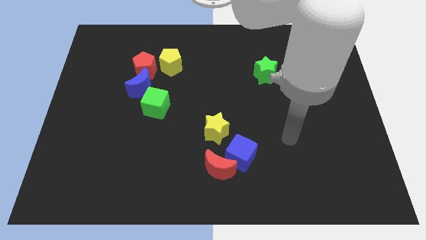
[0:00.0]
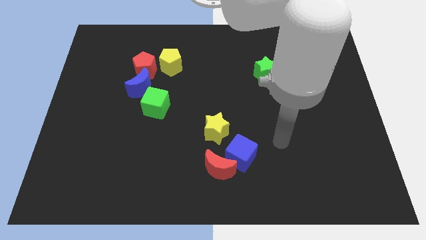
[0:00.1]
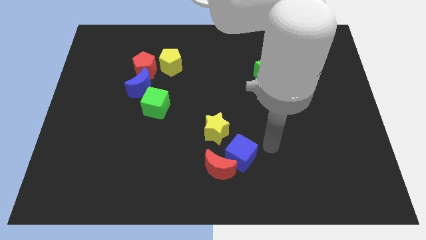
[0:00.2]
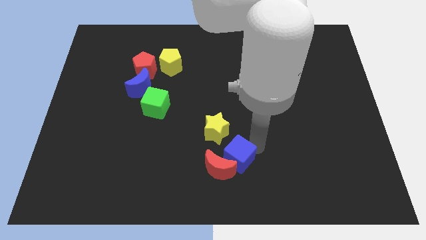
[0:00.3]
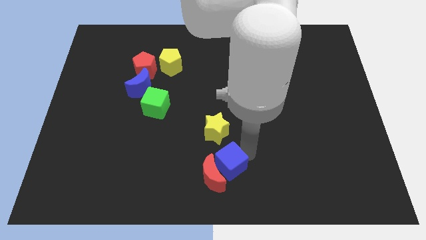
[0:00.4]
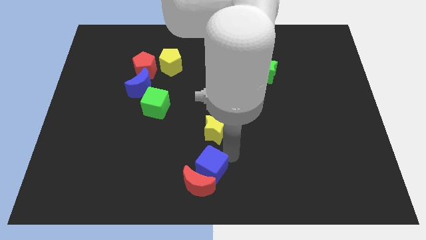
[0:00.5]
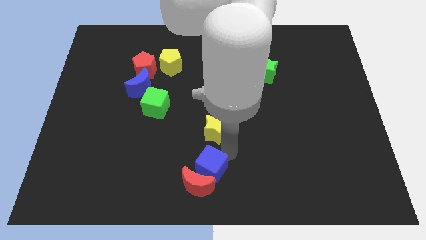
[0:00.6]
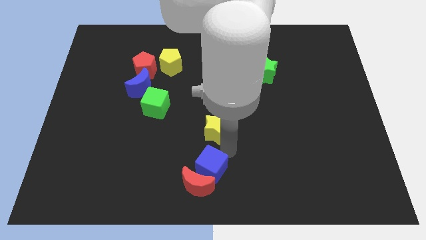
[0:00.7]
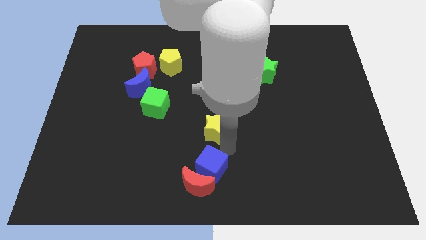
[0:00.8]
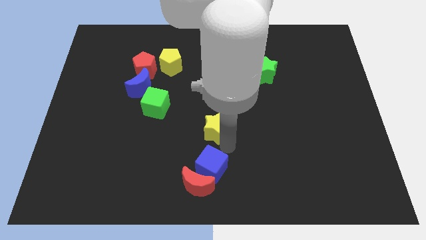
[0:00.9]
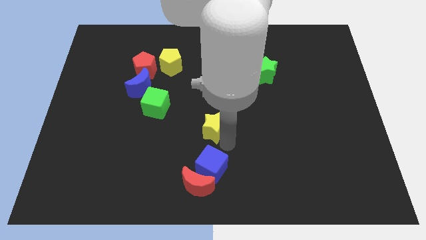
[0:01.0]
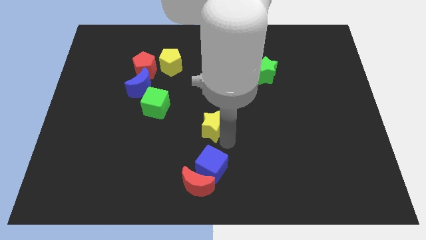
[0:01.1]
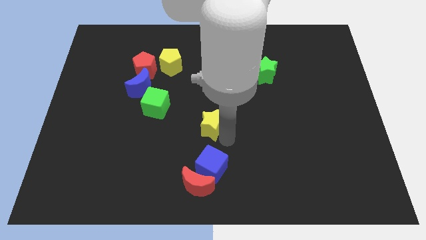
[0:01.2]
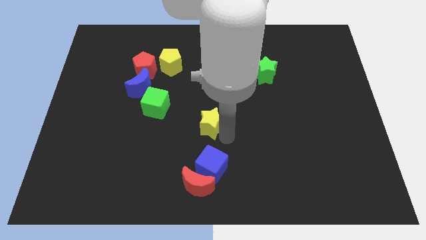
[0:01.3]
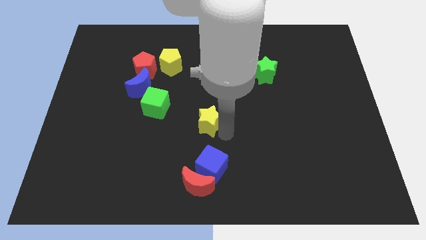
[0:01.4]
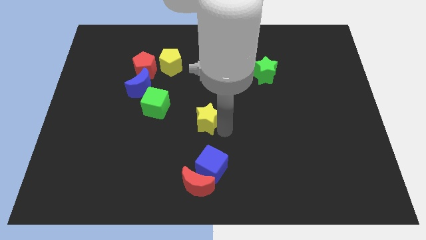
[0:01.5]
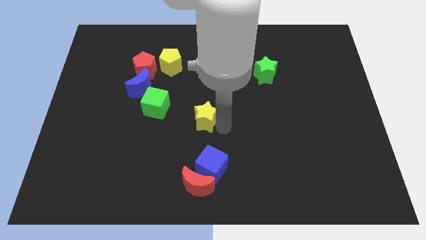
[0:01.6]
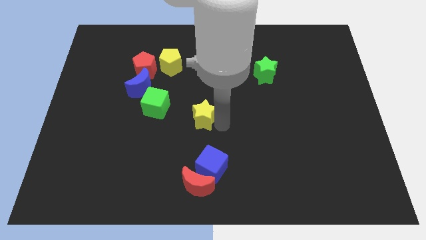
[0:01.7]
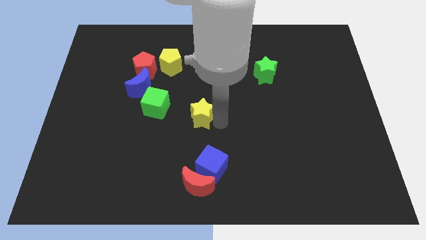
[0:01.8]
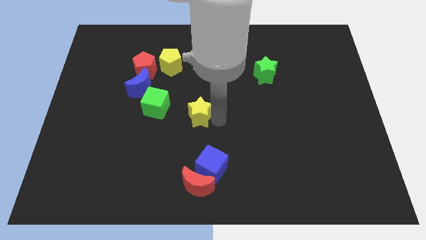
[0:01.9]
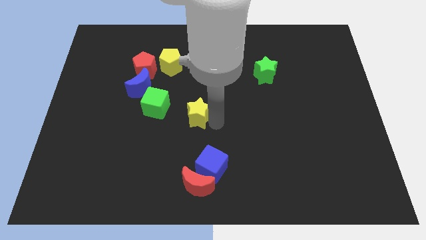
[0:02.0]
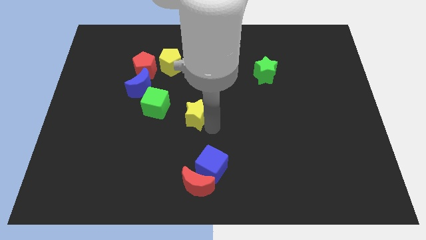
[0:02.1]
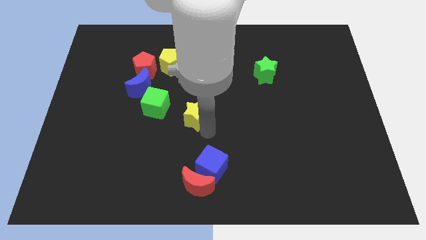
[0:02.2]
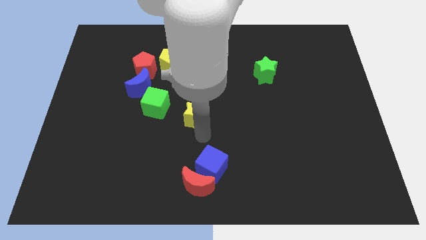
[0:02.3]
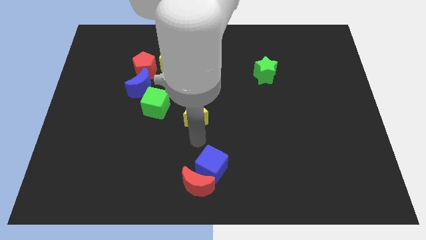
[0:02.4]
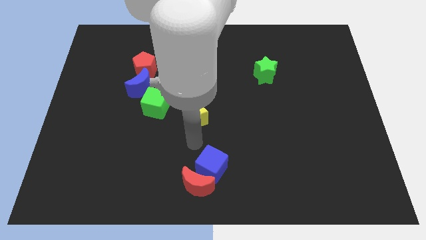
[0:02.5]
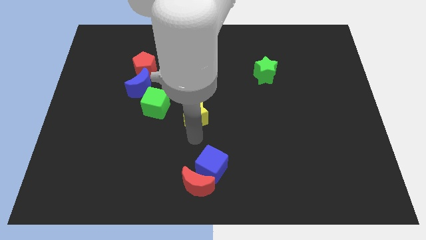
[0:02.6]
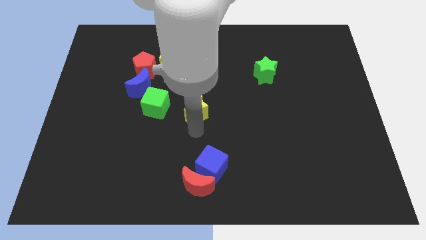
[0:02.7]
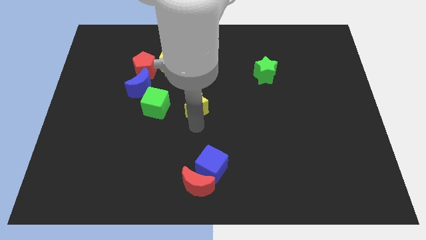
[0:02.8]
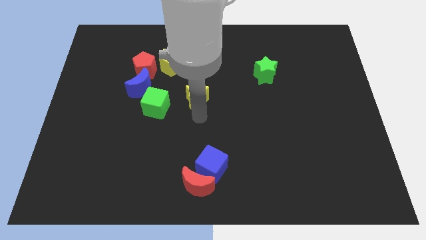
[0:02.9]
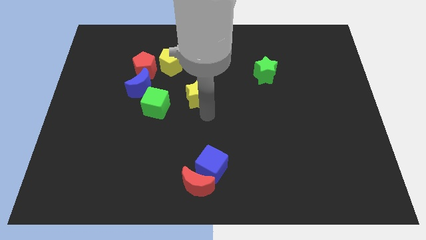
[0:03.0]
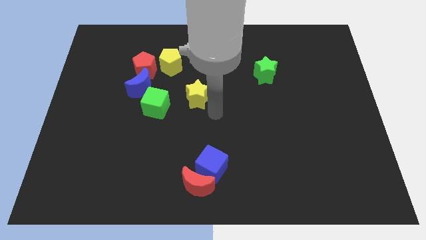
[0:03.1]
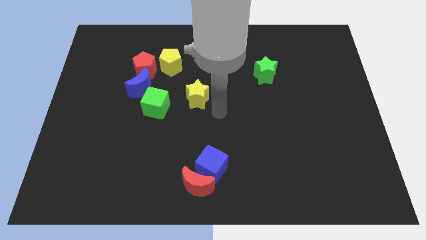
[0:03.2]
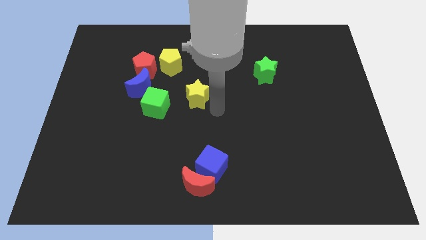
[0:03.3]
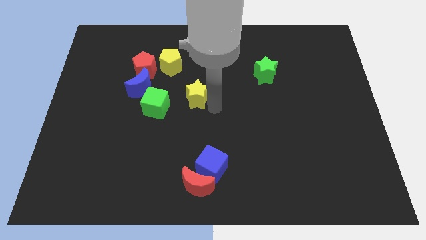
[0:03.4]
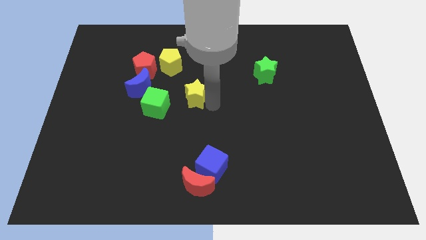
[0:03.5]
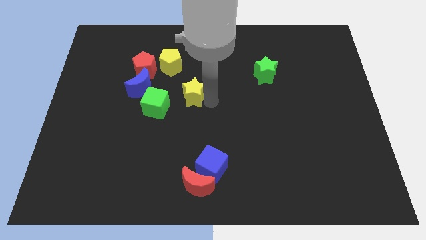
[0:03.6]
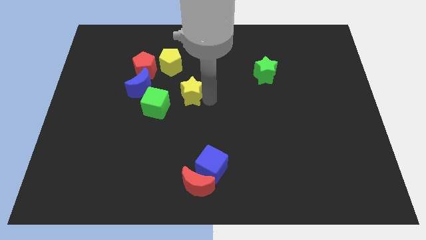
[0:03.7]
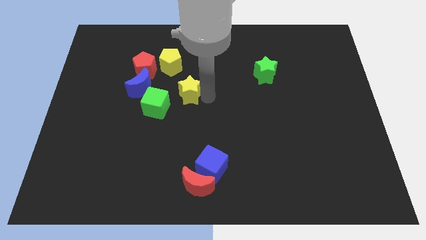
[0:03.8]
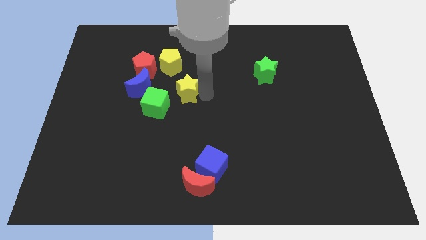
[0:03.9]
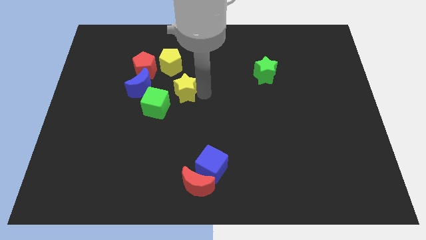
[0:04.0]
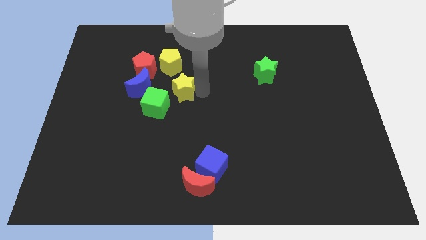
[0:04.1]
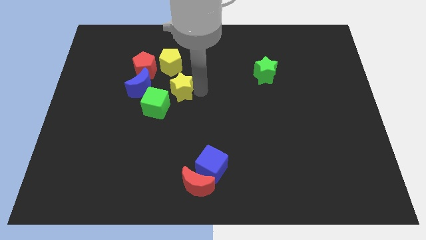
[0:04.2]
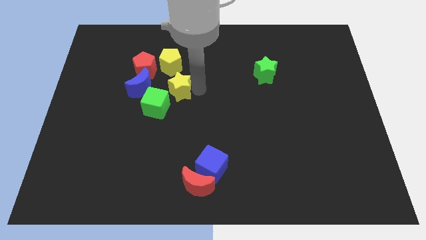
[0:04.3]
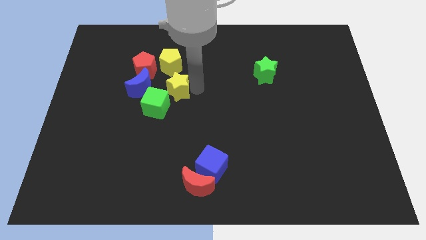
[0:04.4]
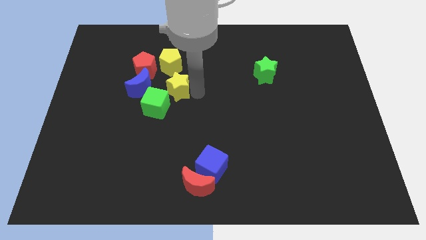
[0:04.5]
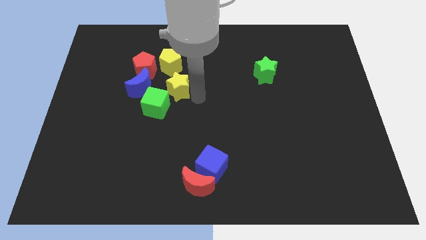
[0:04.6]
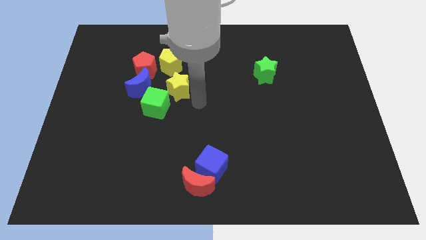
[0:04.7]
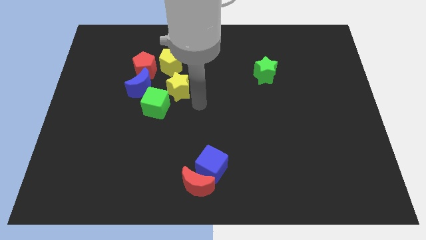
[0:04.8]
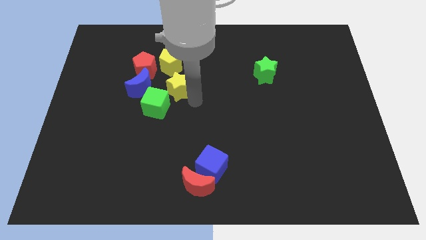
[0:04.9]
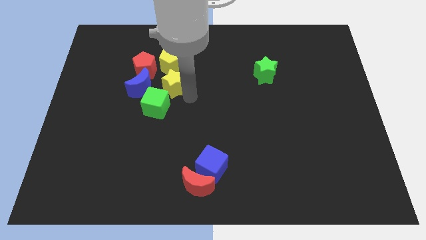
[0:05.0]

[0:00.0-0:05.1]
put the yellow star to the top side of the green cube

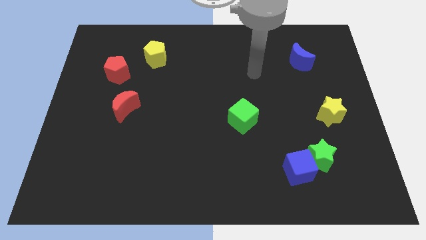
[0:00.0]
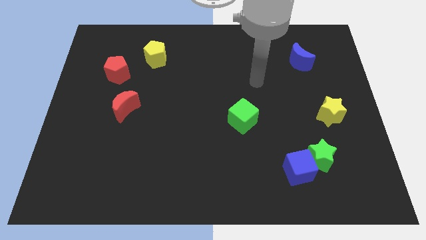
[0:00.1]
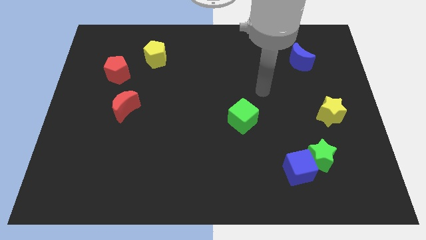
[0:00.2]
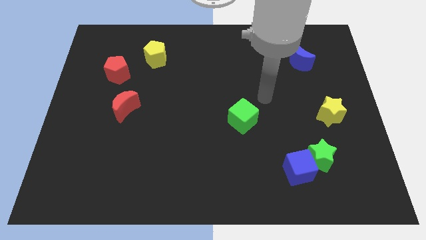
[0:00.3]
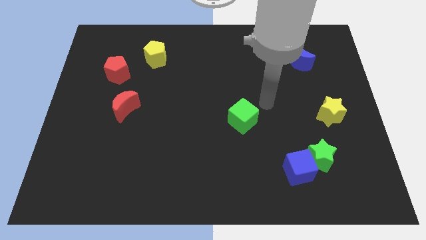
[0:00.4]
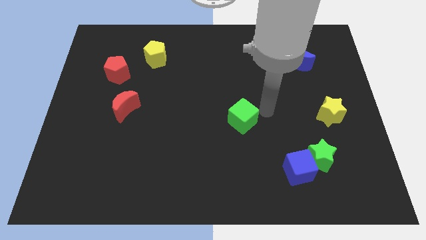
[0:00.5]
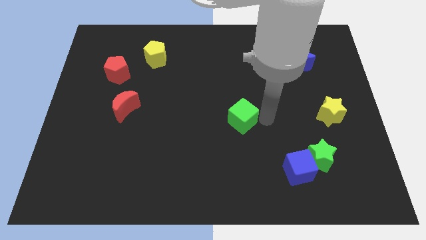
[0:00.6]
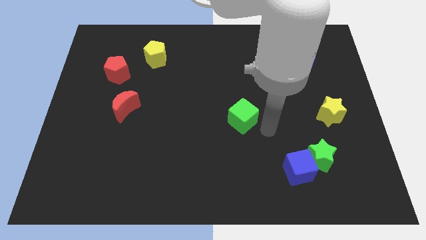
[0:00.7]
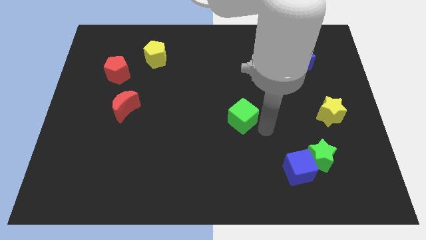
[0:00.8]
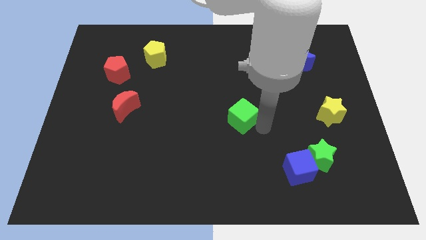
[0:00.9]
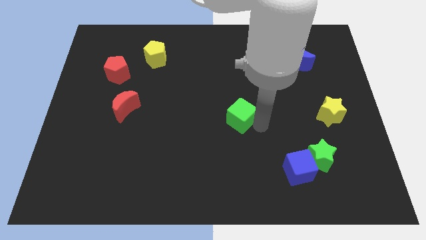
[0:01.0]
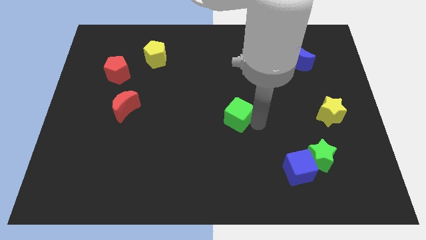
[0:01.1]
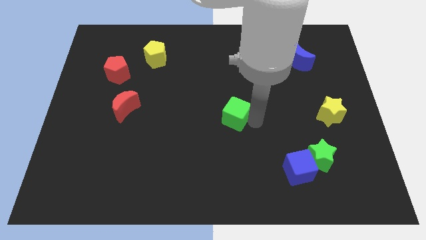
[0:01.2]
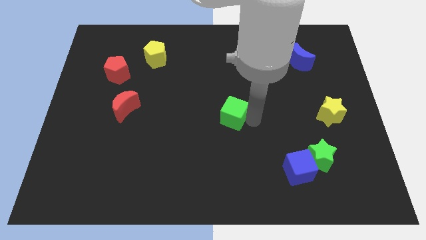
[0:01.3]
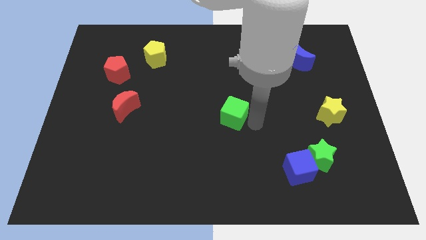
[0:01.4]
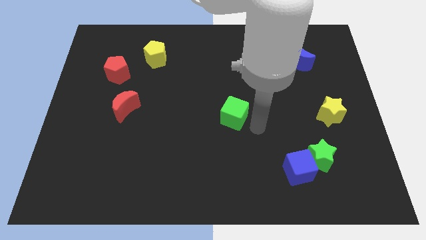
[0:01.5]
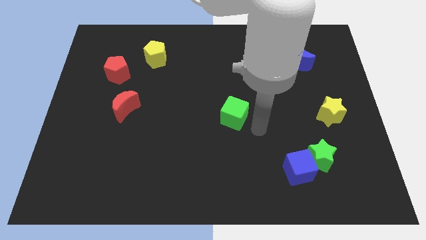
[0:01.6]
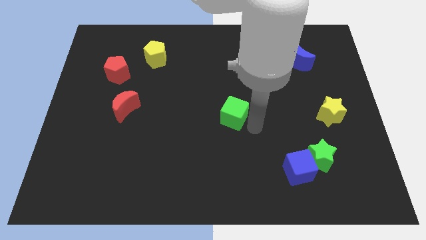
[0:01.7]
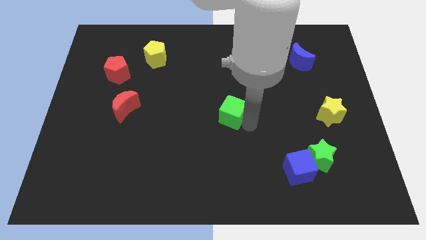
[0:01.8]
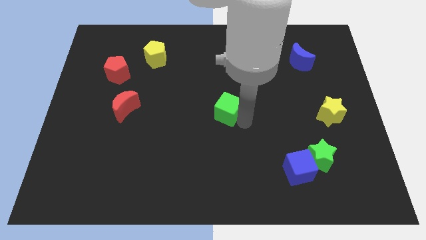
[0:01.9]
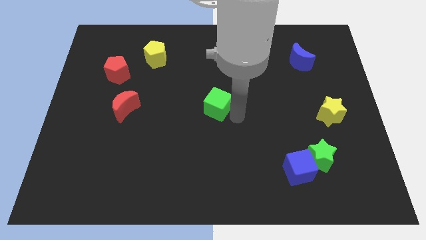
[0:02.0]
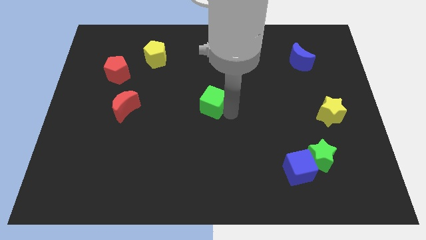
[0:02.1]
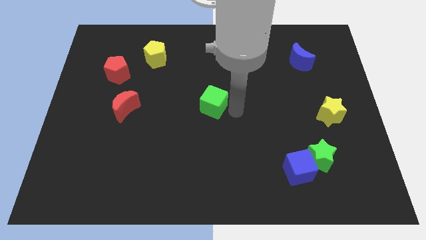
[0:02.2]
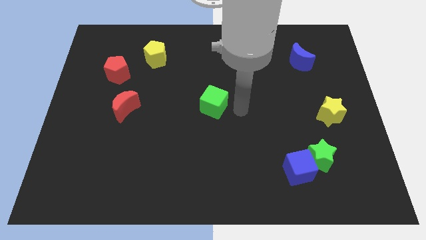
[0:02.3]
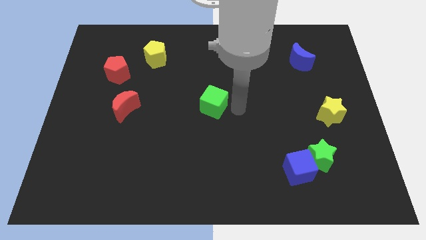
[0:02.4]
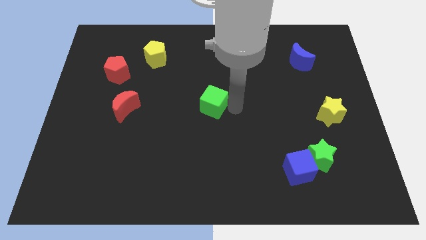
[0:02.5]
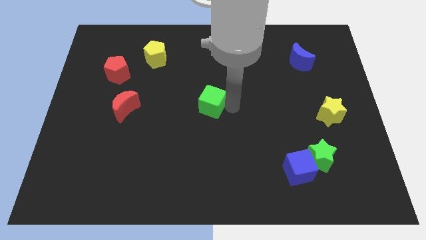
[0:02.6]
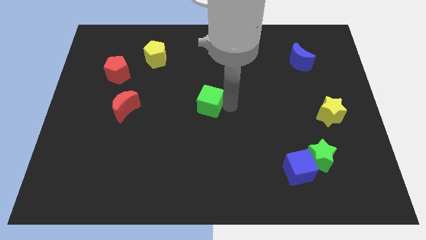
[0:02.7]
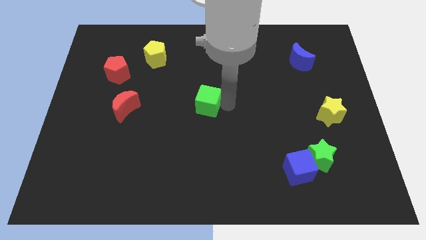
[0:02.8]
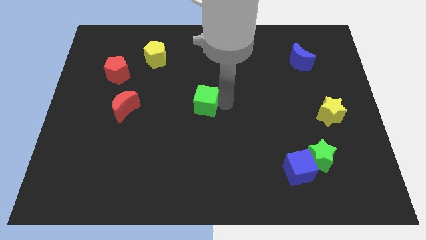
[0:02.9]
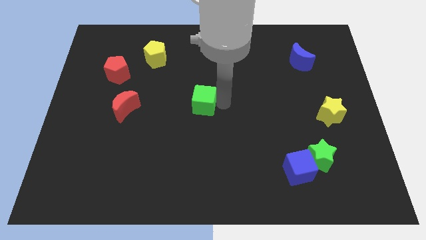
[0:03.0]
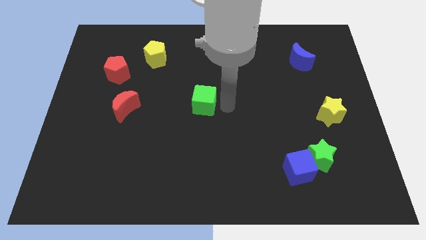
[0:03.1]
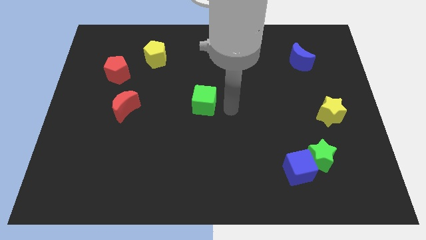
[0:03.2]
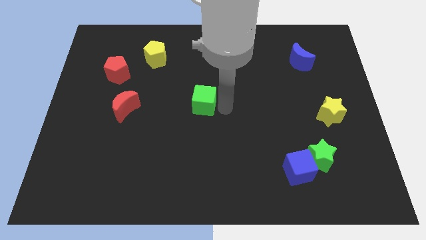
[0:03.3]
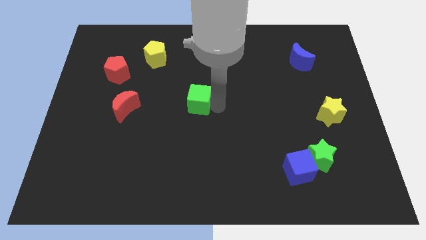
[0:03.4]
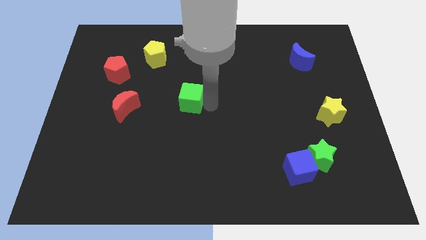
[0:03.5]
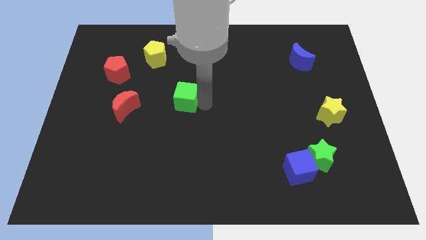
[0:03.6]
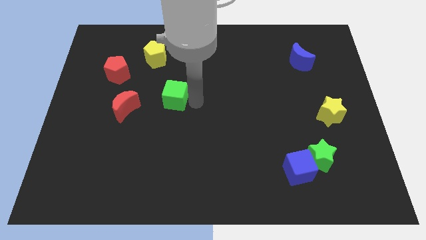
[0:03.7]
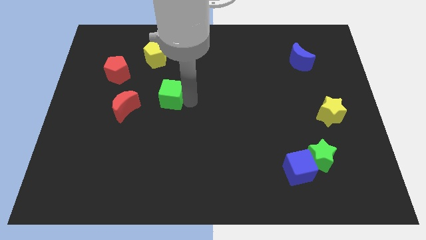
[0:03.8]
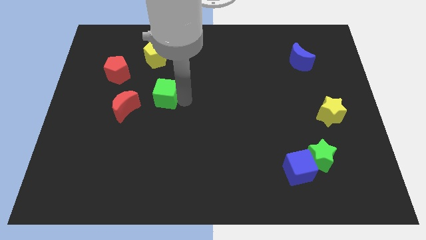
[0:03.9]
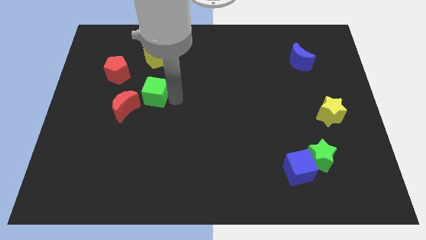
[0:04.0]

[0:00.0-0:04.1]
slide the green cube diagonally down and to the right of the red pentagon
